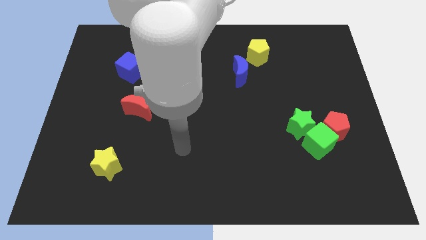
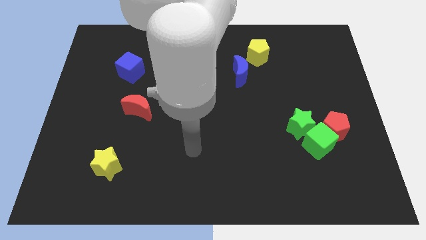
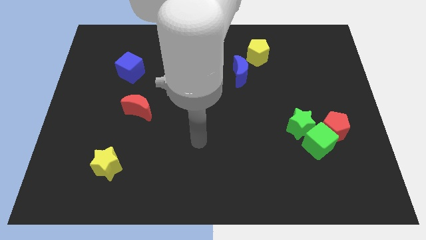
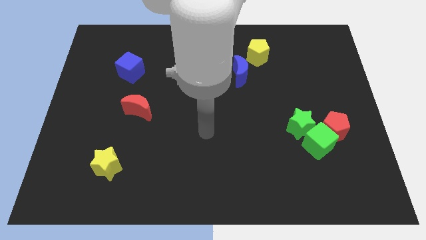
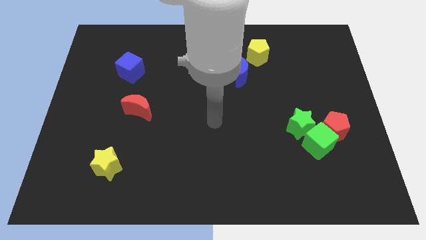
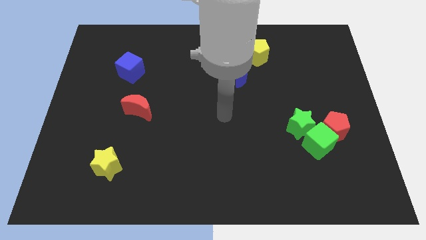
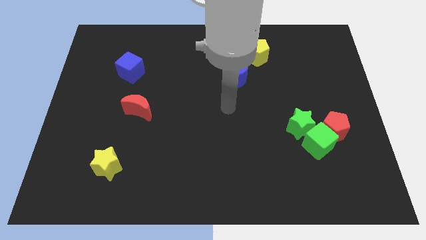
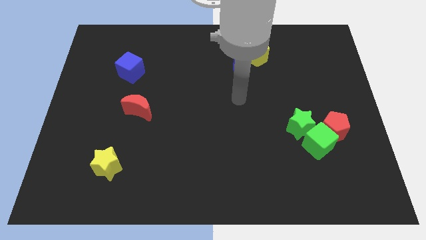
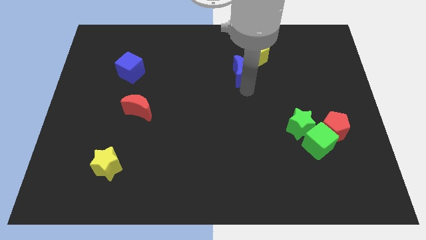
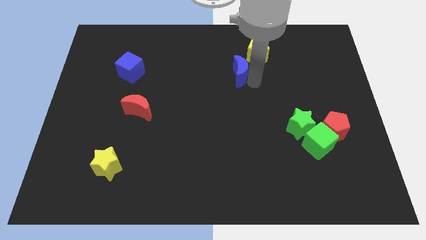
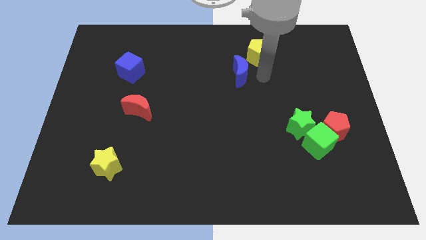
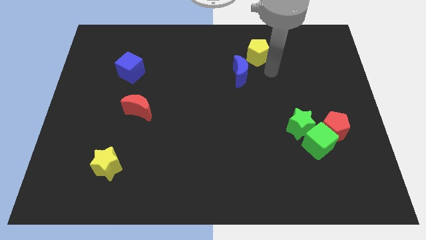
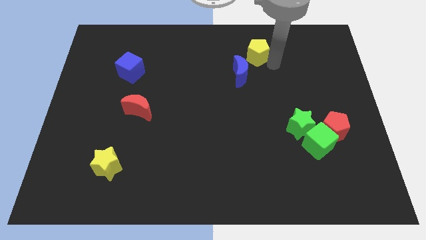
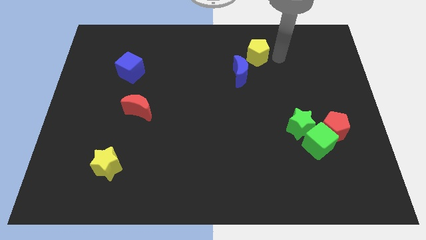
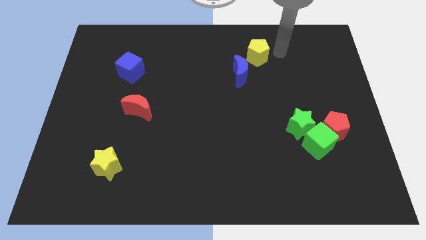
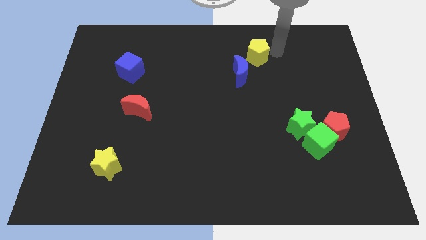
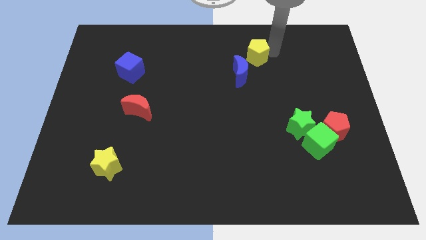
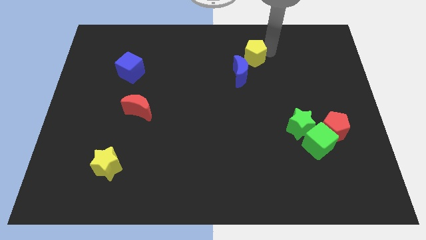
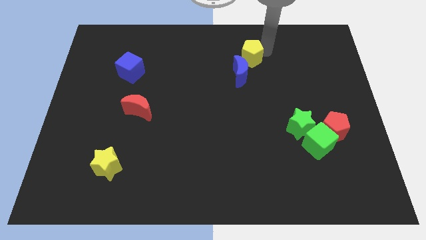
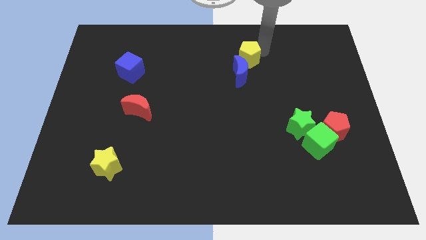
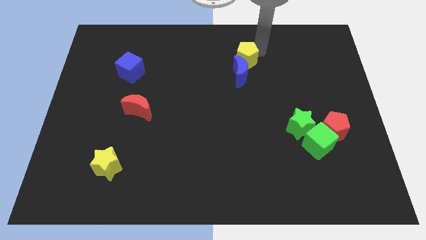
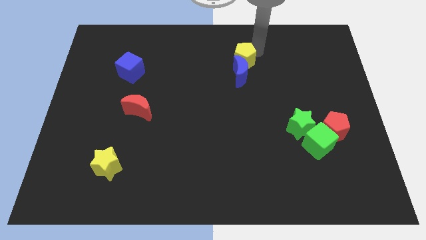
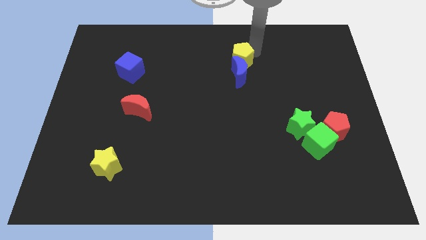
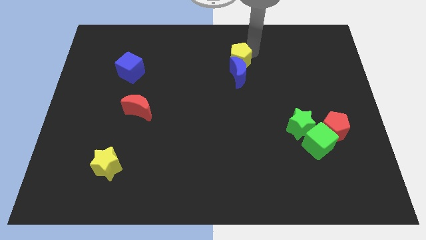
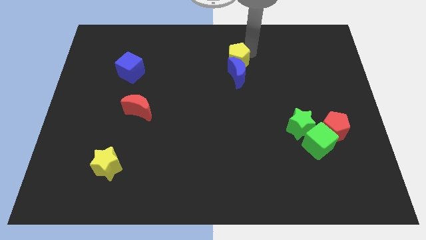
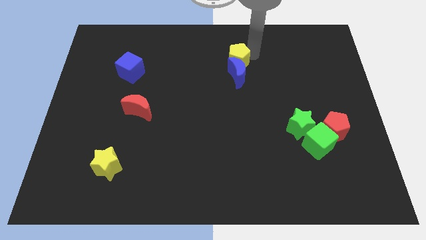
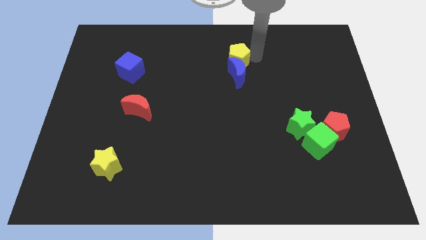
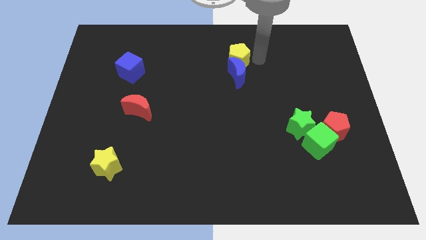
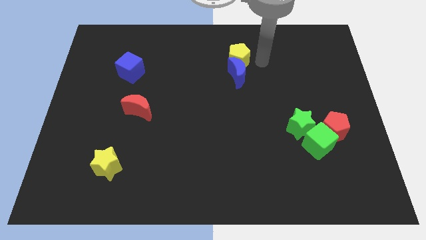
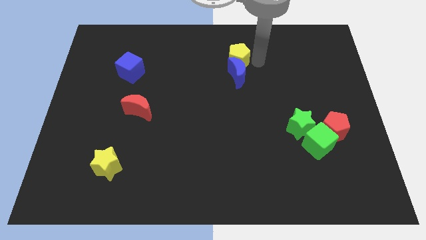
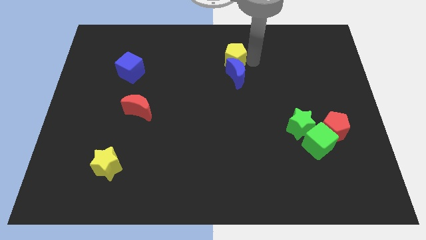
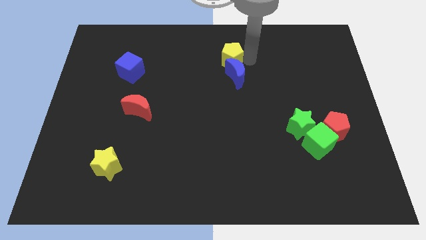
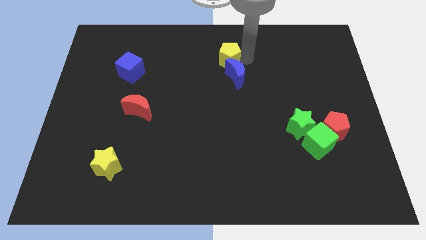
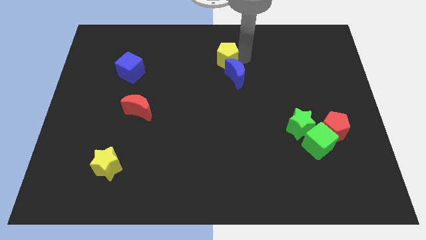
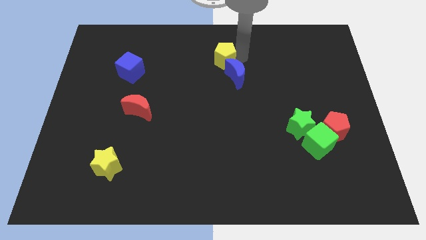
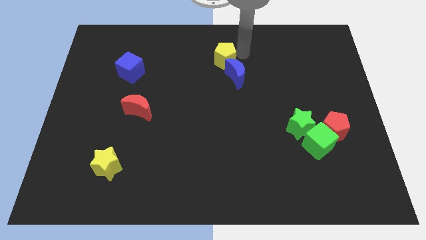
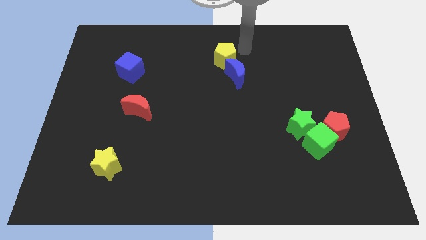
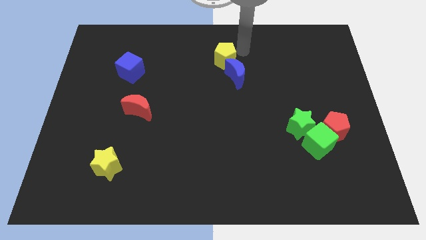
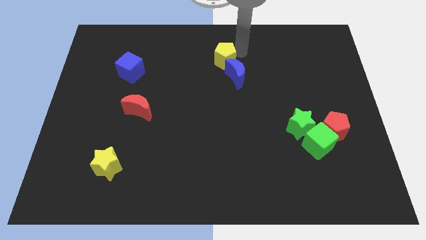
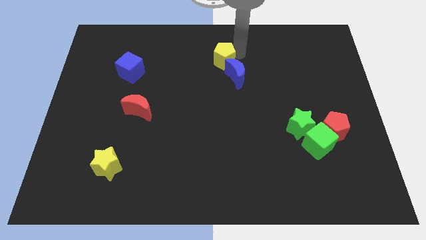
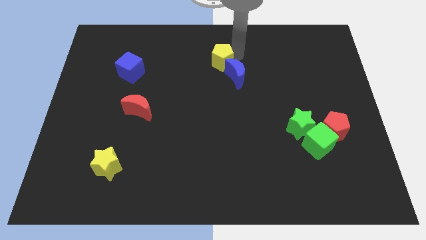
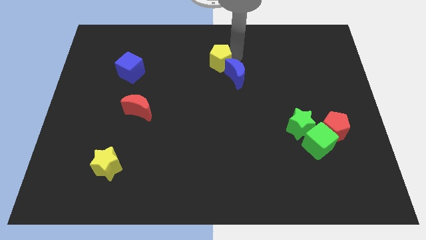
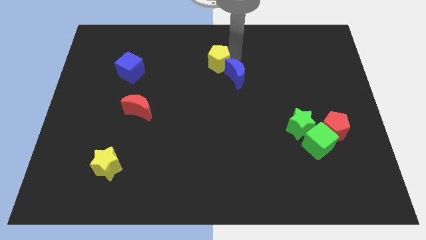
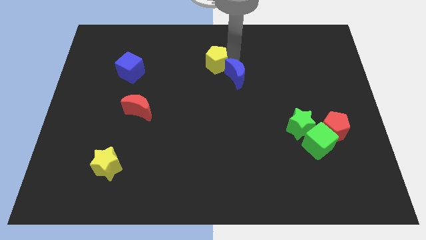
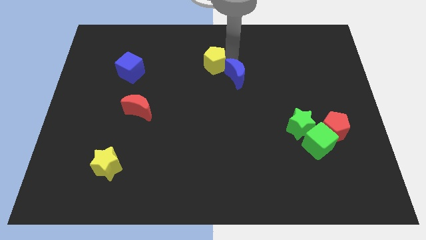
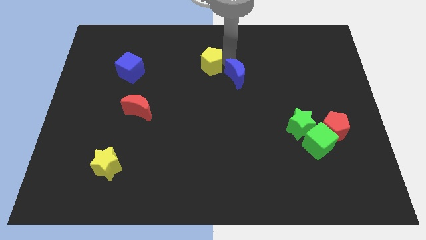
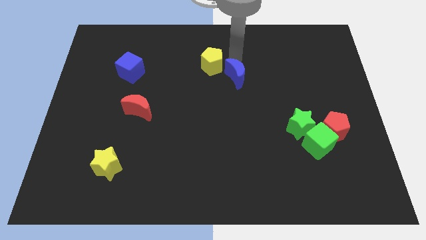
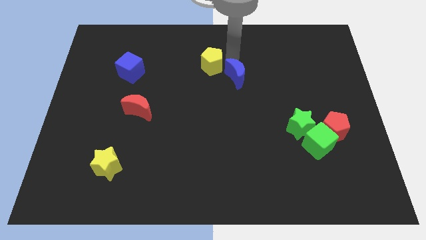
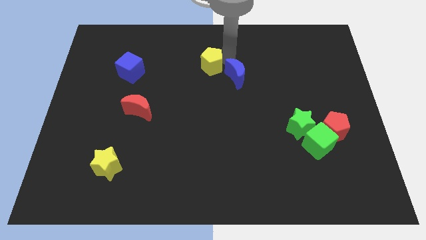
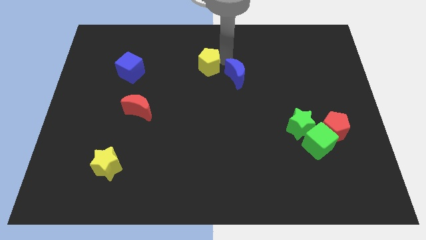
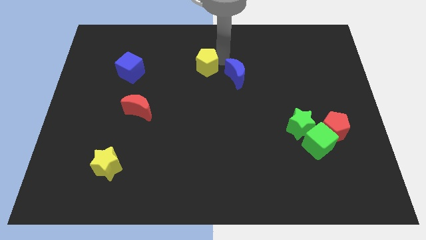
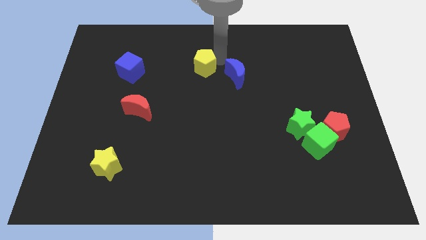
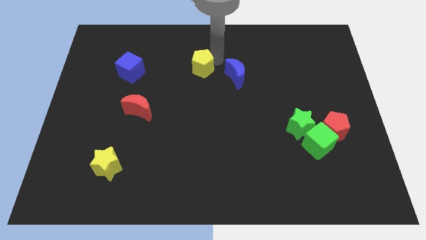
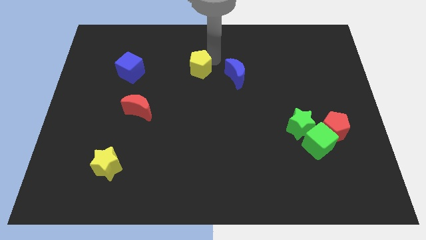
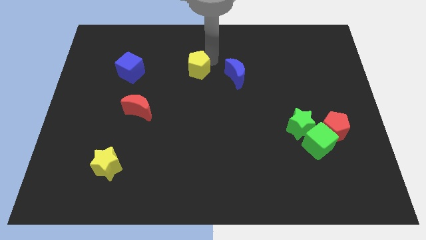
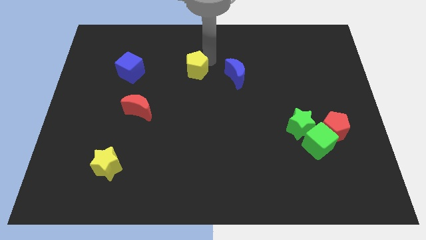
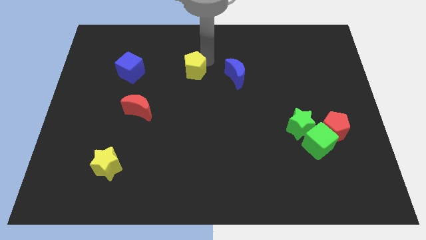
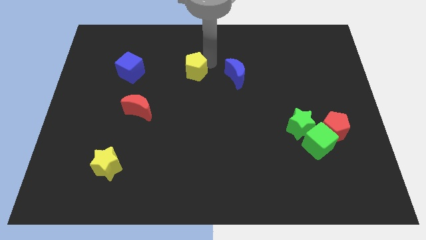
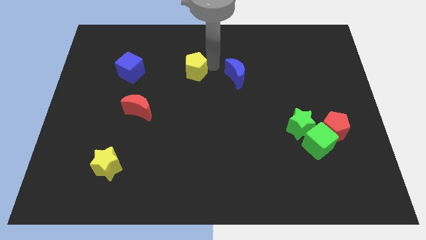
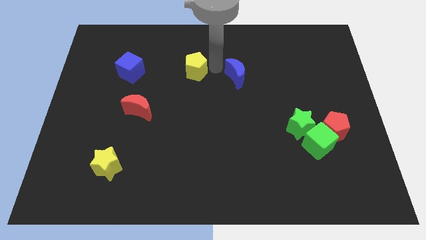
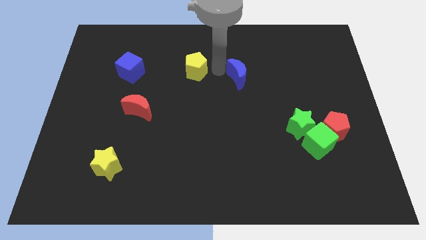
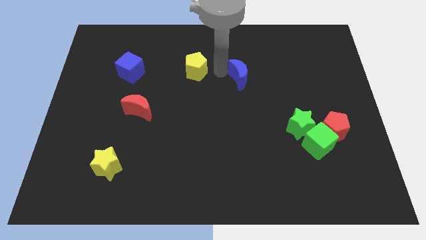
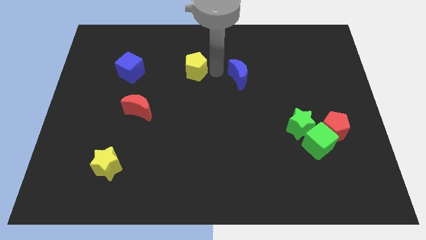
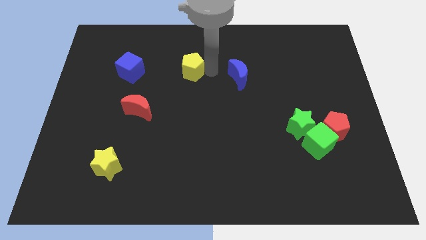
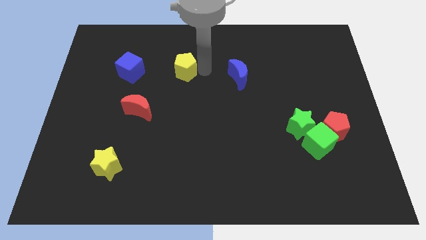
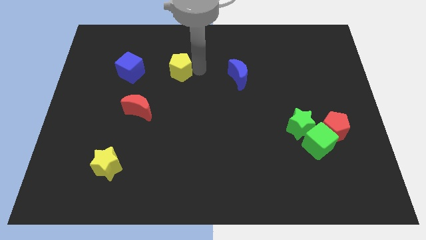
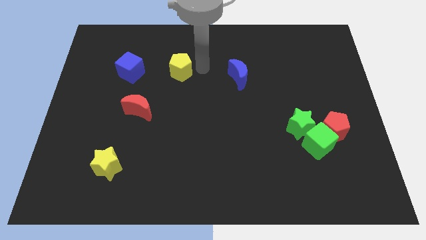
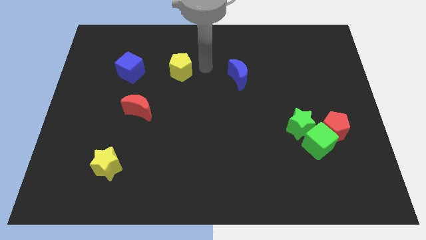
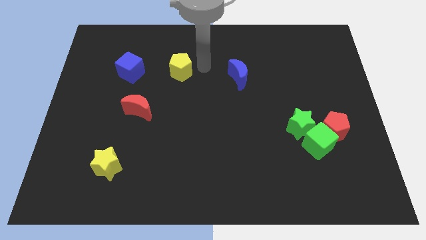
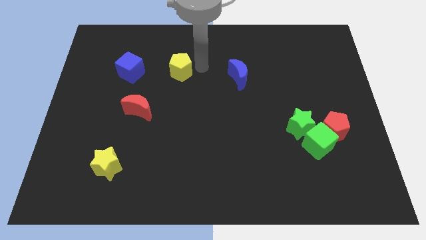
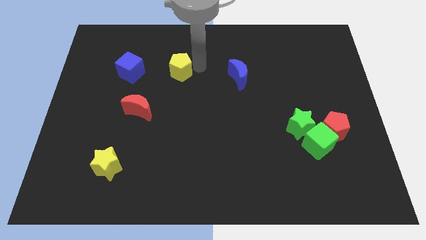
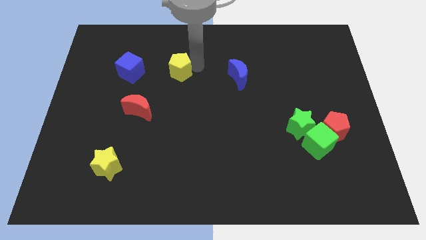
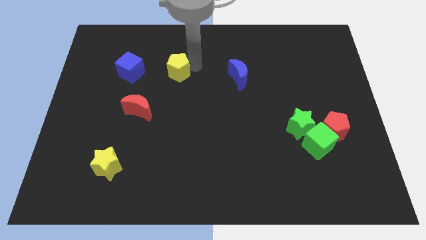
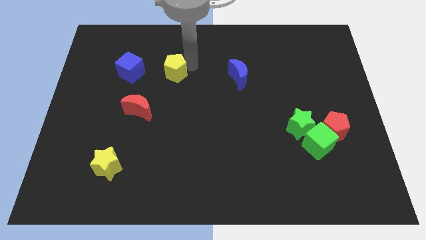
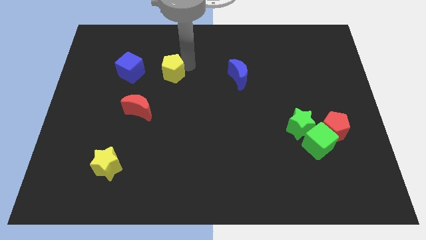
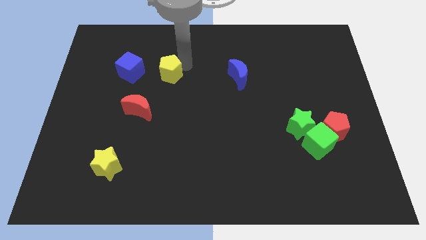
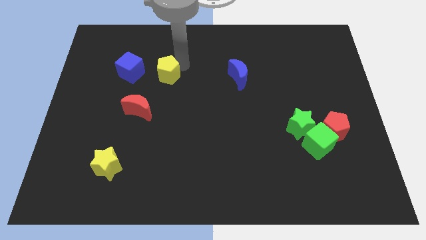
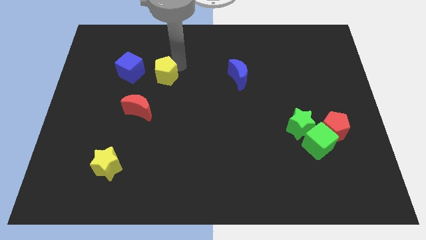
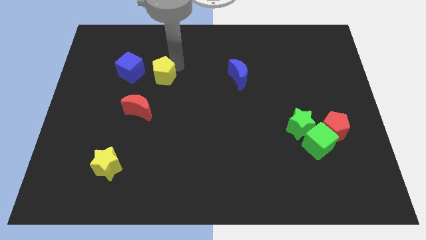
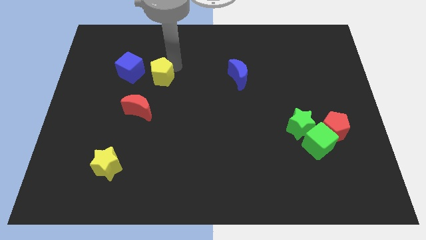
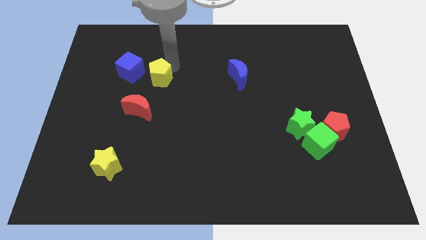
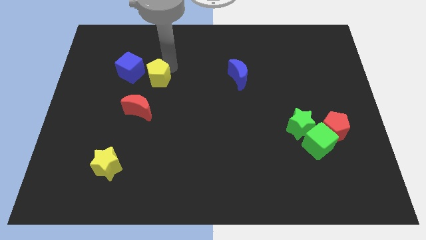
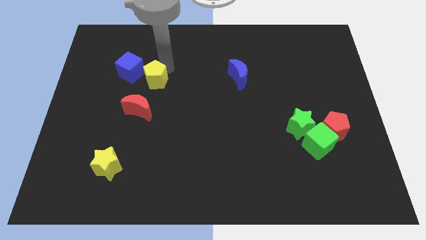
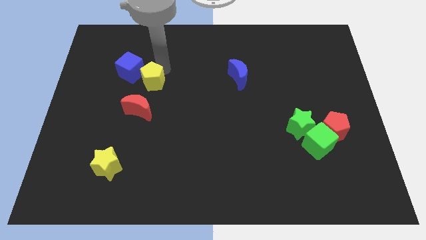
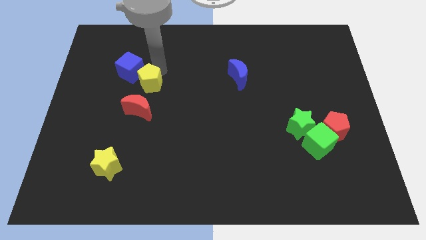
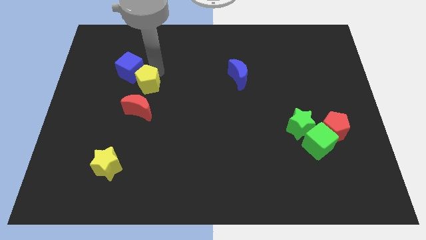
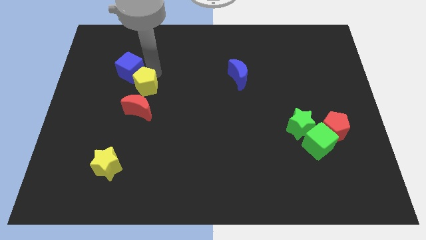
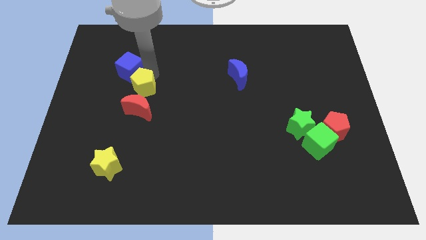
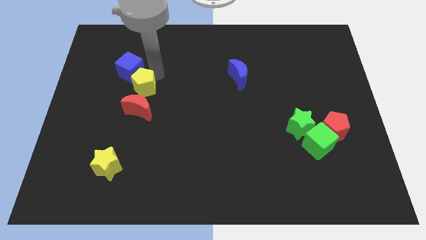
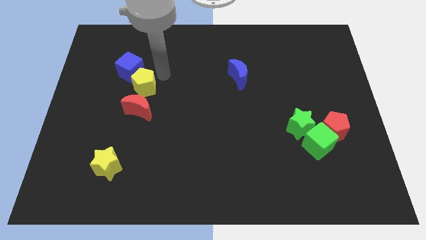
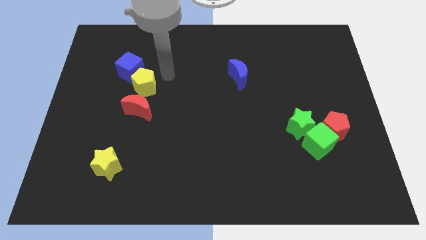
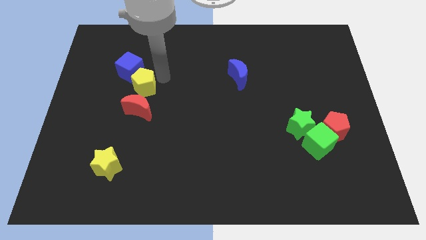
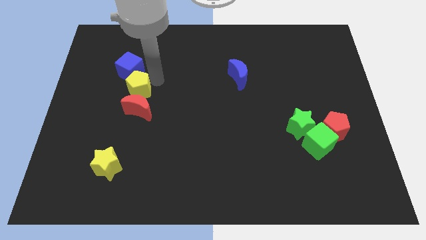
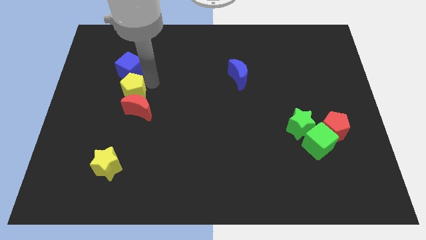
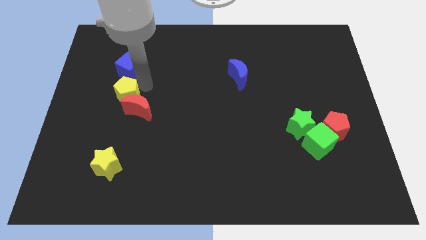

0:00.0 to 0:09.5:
push the yellow pentagon just left of the red moon
